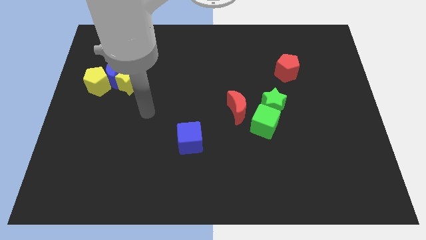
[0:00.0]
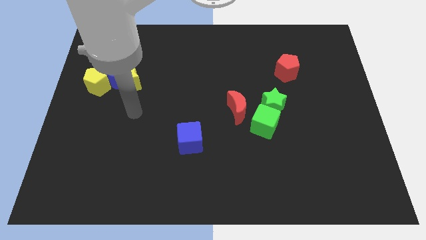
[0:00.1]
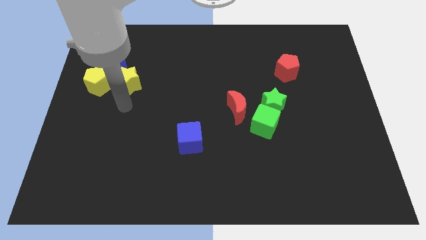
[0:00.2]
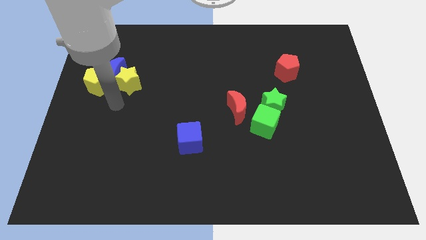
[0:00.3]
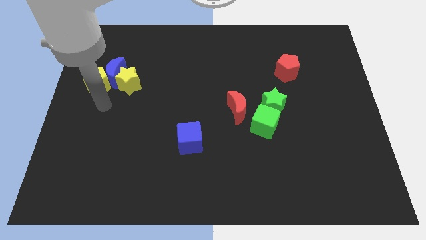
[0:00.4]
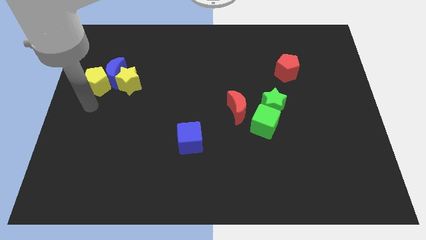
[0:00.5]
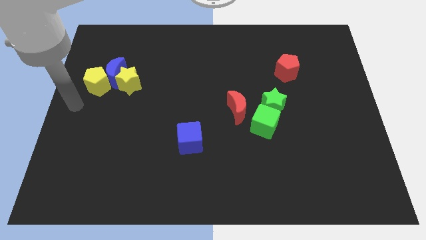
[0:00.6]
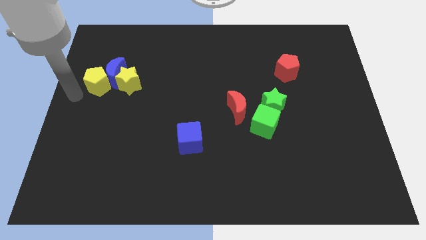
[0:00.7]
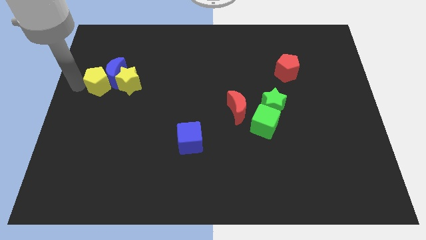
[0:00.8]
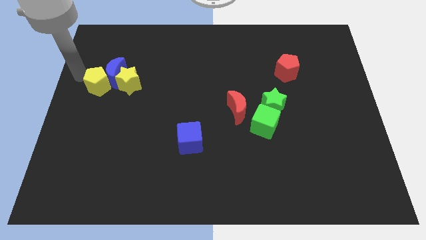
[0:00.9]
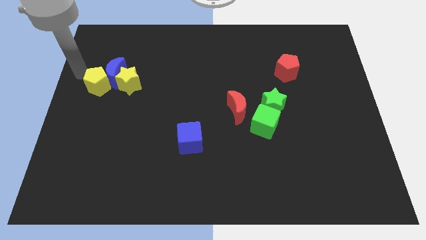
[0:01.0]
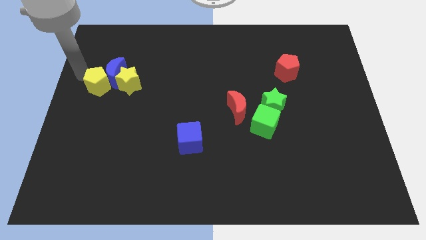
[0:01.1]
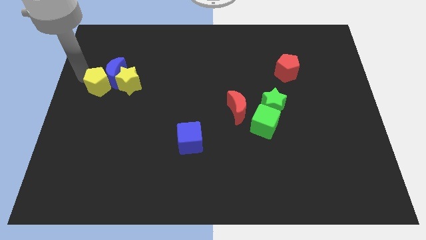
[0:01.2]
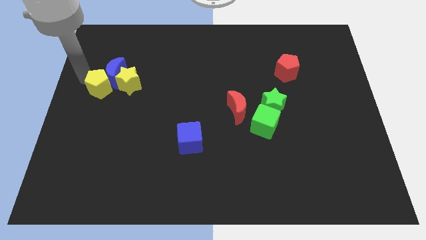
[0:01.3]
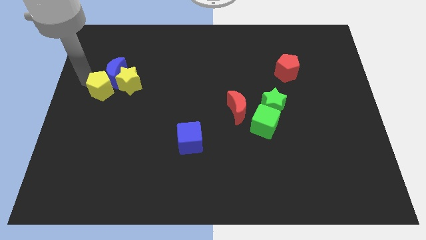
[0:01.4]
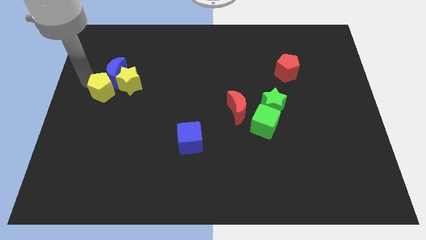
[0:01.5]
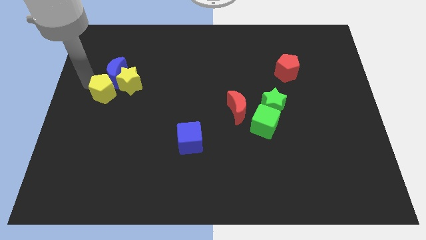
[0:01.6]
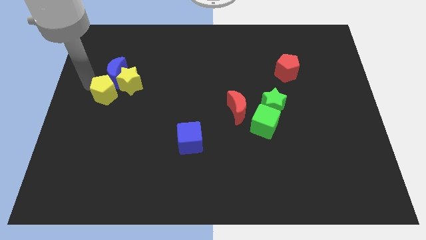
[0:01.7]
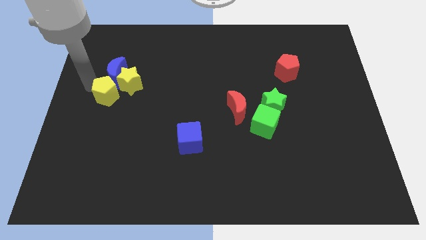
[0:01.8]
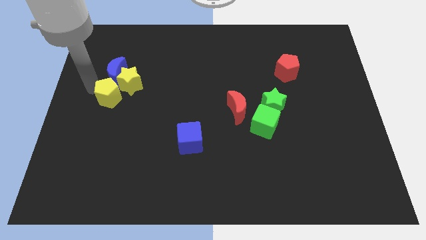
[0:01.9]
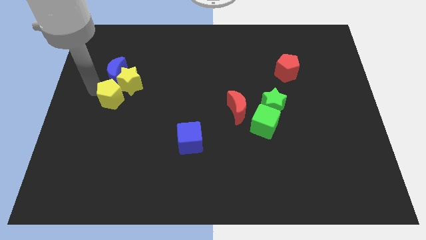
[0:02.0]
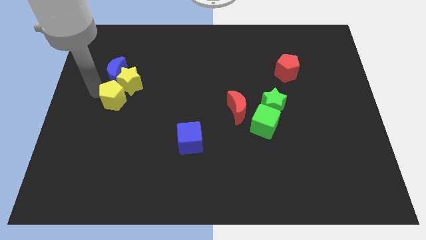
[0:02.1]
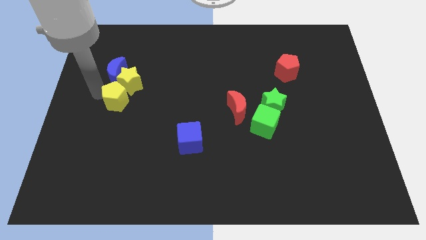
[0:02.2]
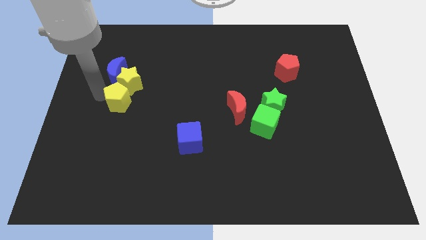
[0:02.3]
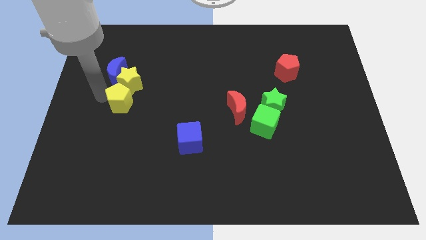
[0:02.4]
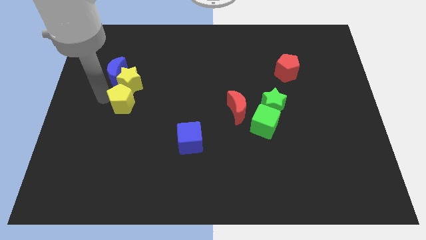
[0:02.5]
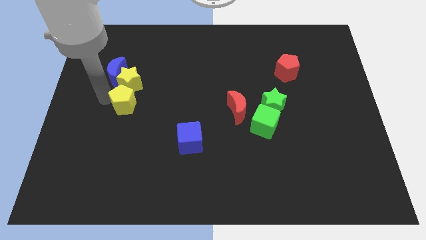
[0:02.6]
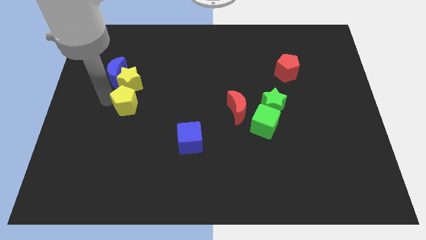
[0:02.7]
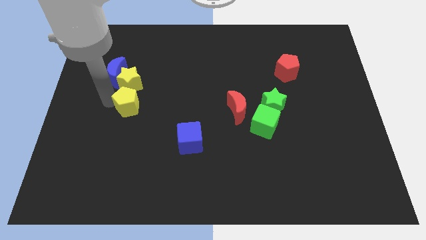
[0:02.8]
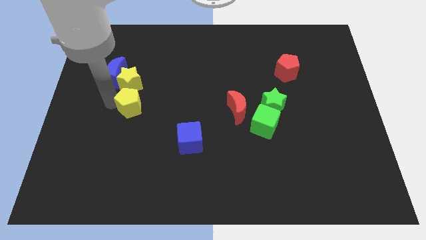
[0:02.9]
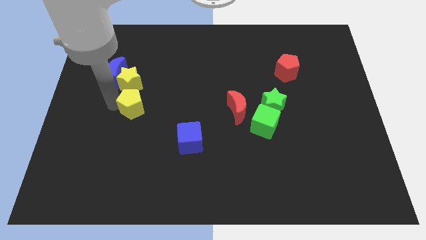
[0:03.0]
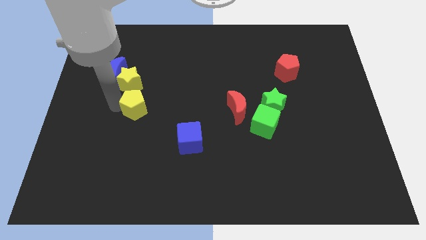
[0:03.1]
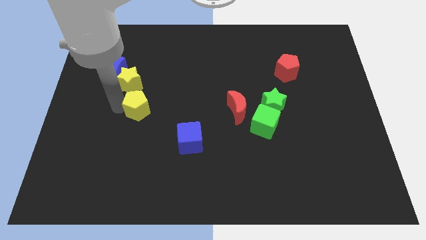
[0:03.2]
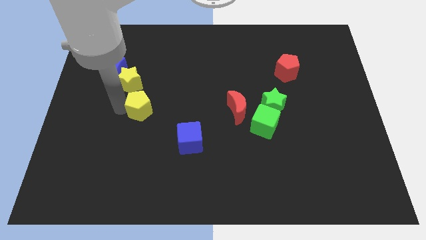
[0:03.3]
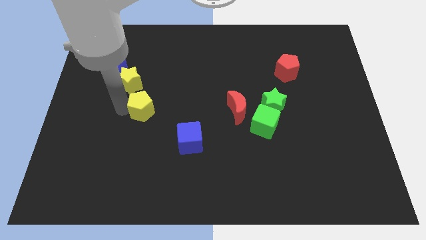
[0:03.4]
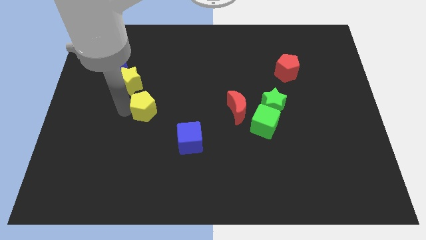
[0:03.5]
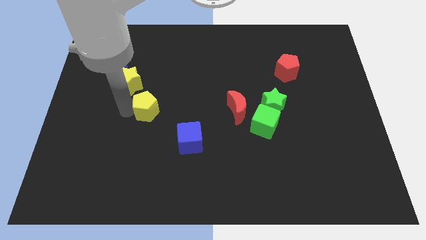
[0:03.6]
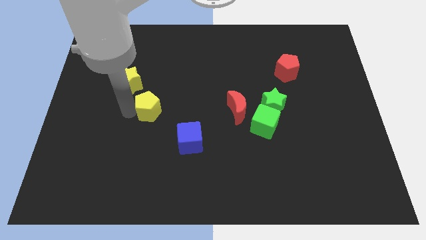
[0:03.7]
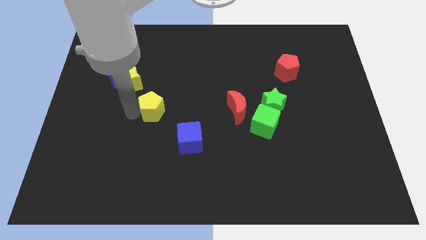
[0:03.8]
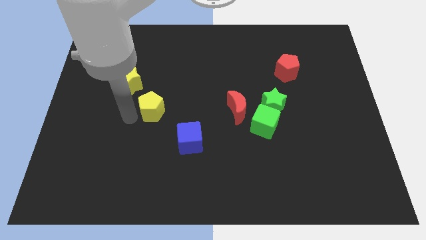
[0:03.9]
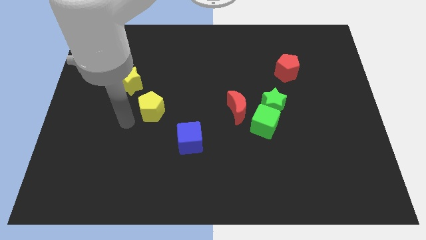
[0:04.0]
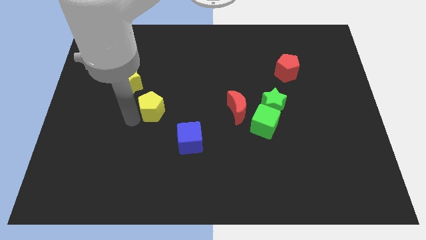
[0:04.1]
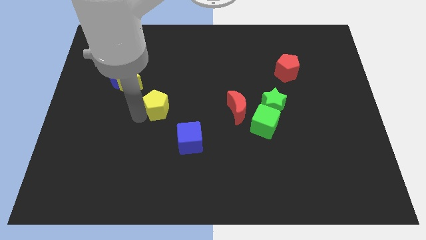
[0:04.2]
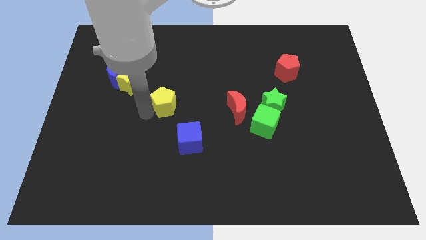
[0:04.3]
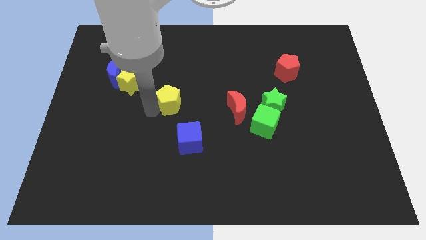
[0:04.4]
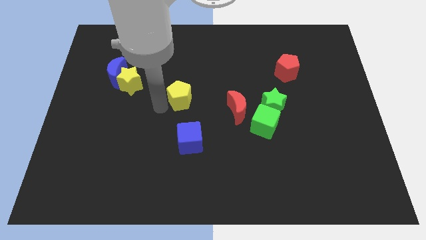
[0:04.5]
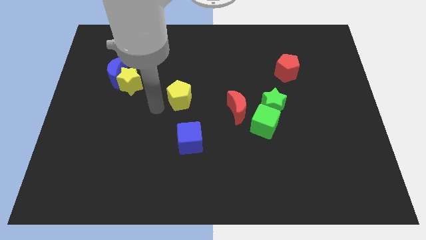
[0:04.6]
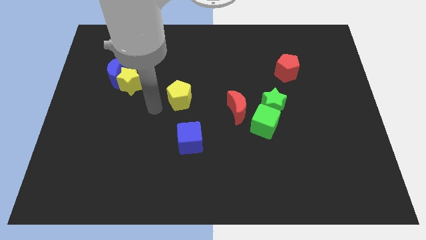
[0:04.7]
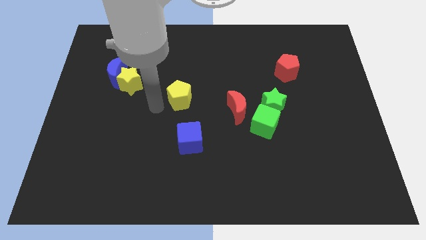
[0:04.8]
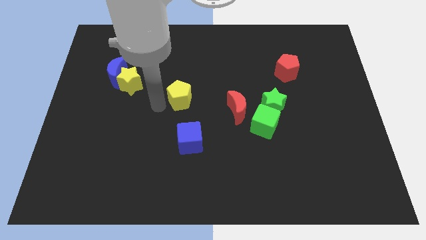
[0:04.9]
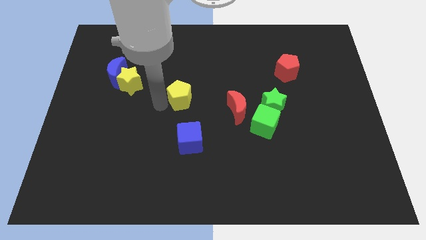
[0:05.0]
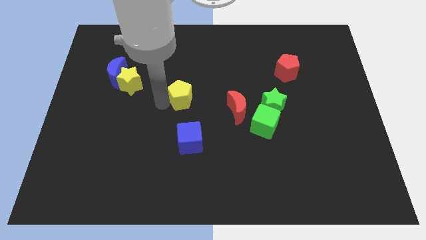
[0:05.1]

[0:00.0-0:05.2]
move the yellow pentagon to the right

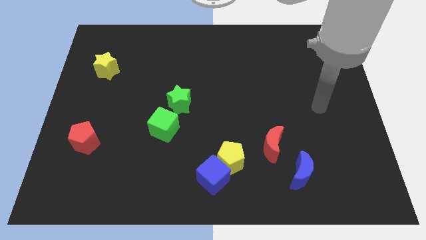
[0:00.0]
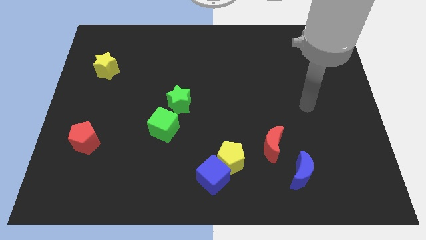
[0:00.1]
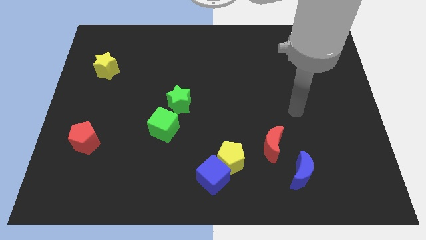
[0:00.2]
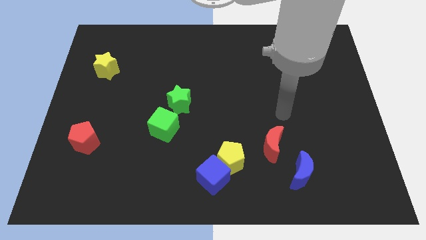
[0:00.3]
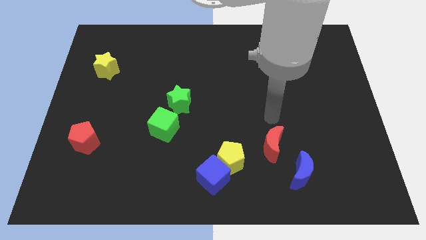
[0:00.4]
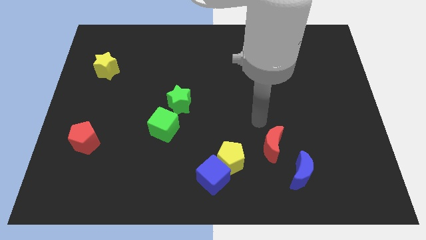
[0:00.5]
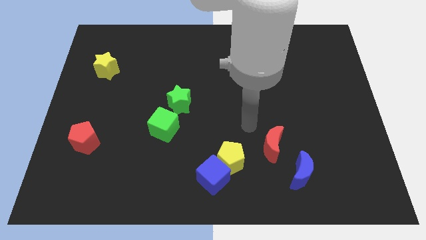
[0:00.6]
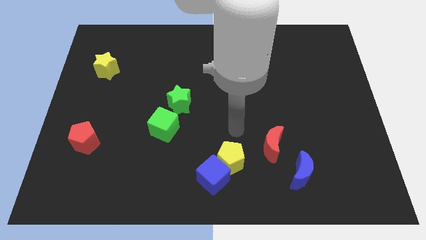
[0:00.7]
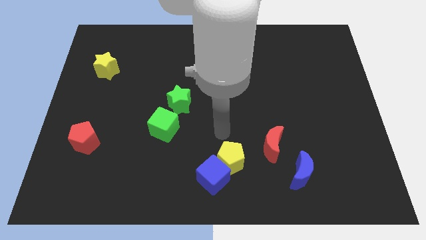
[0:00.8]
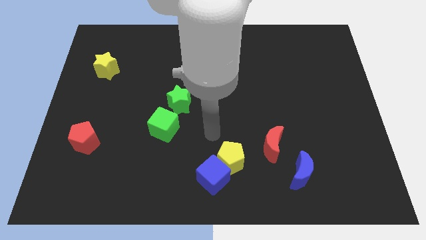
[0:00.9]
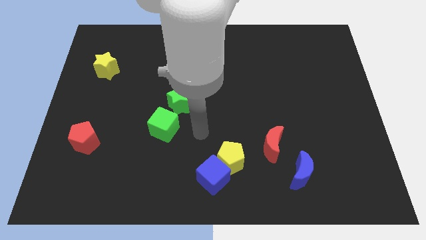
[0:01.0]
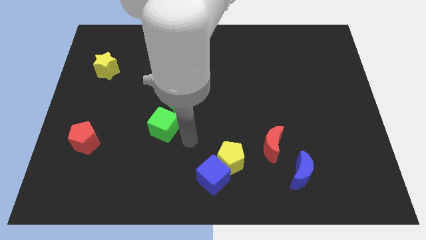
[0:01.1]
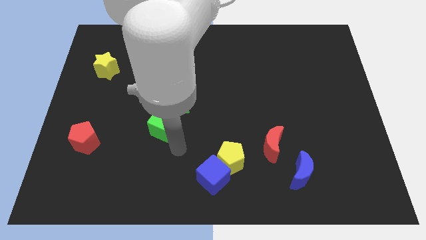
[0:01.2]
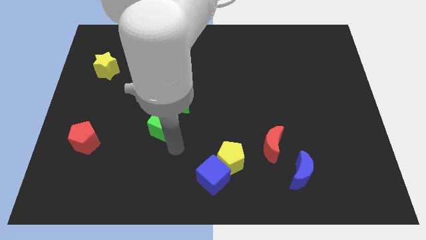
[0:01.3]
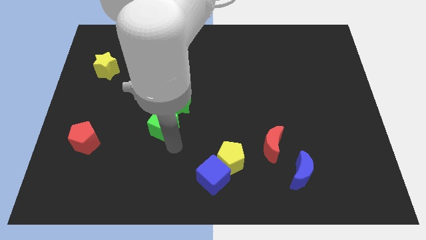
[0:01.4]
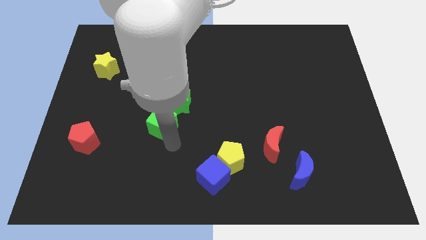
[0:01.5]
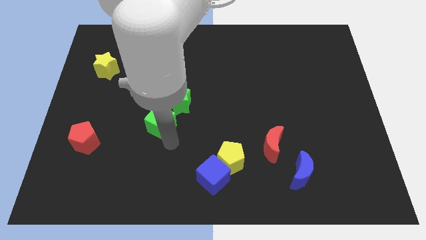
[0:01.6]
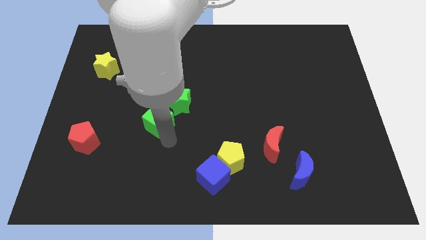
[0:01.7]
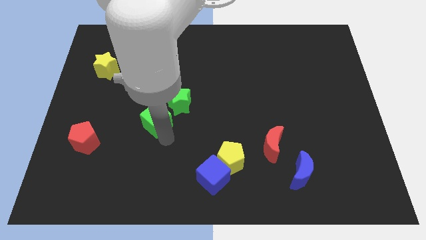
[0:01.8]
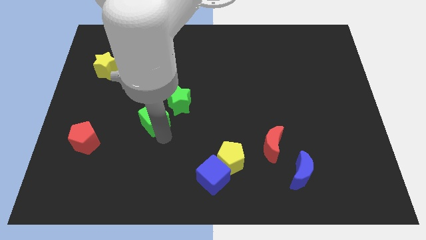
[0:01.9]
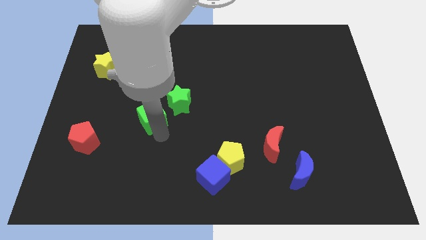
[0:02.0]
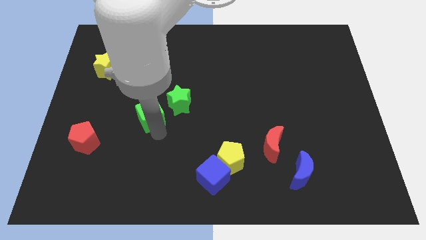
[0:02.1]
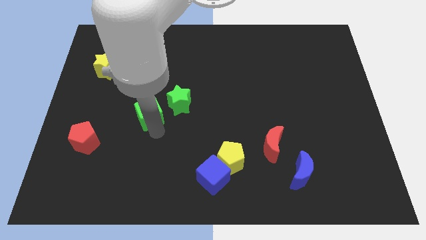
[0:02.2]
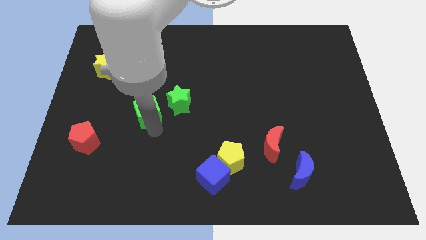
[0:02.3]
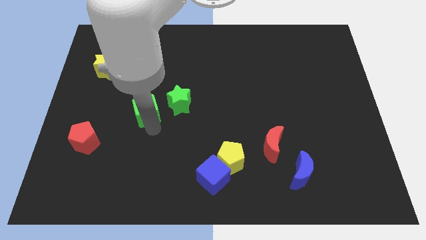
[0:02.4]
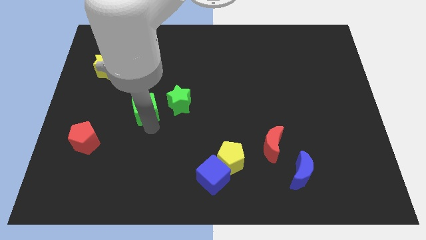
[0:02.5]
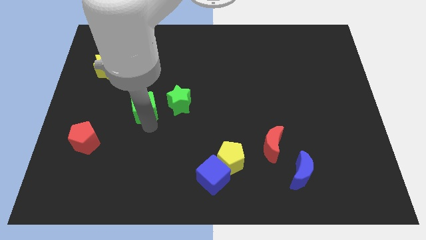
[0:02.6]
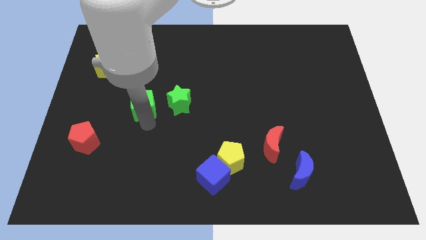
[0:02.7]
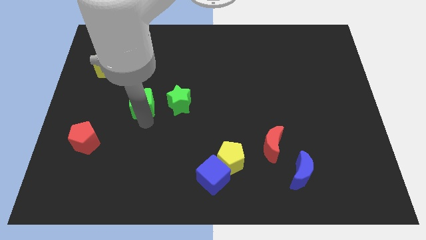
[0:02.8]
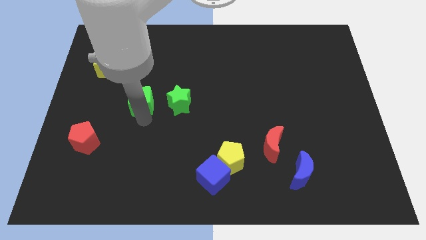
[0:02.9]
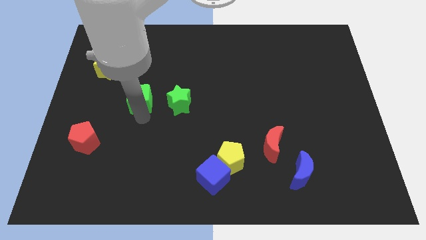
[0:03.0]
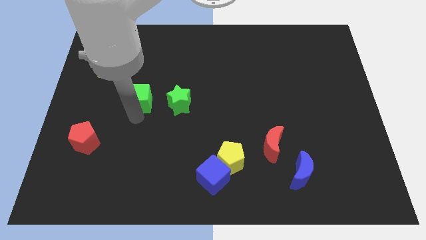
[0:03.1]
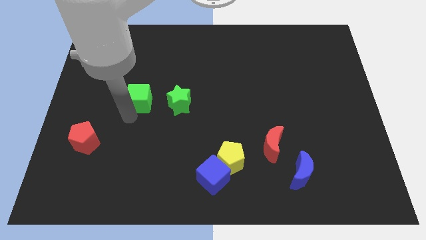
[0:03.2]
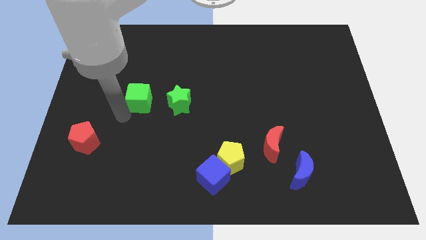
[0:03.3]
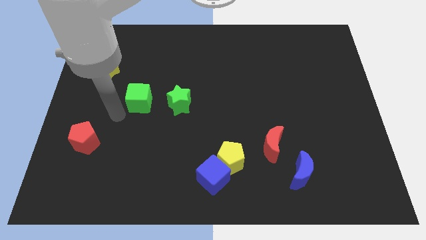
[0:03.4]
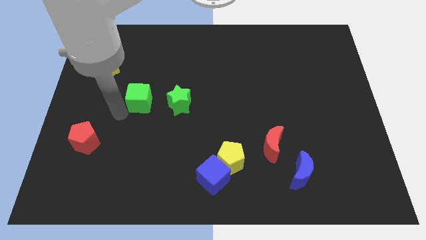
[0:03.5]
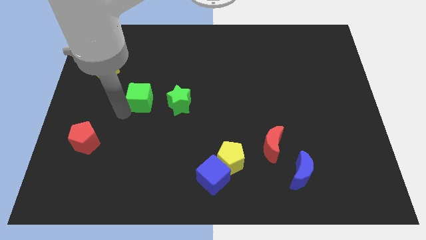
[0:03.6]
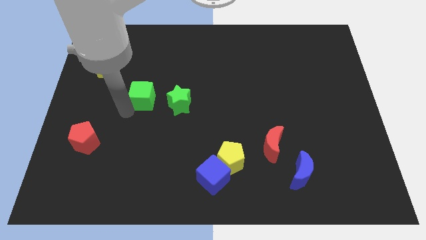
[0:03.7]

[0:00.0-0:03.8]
slightly slide the green cube upwards
